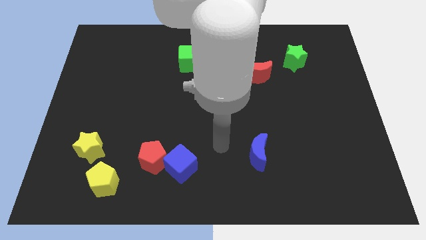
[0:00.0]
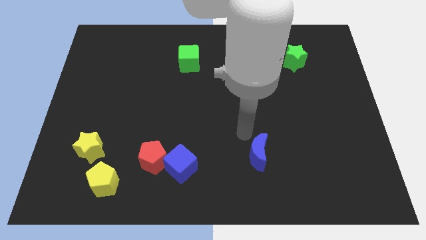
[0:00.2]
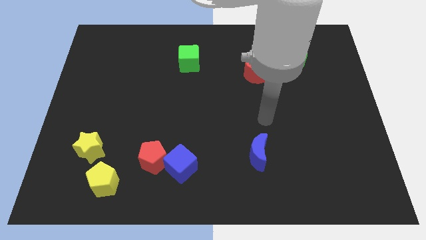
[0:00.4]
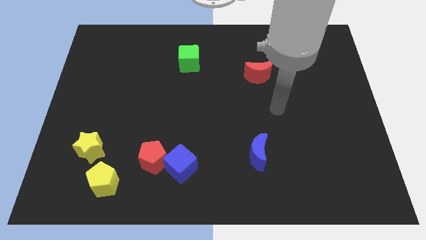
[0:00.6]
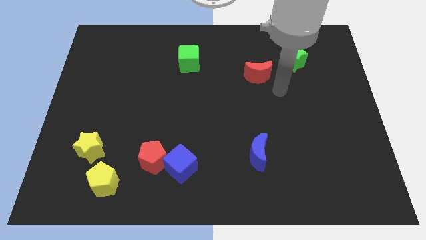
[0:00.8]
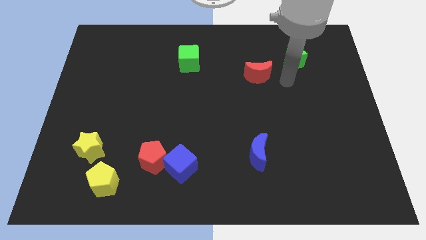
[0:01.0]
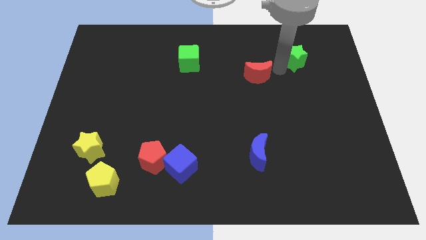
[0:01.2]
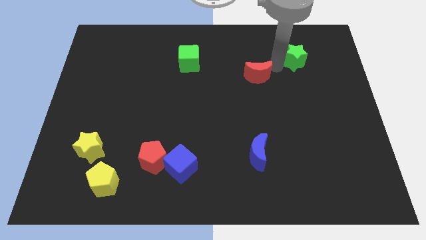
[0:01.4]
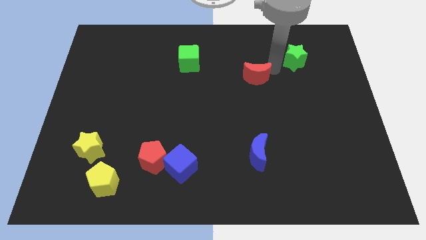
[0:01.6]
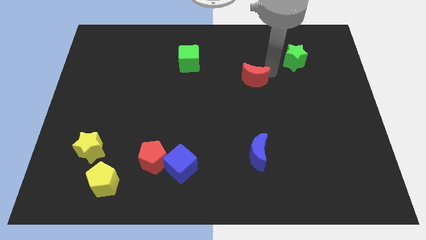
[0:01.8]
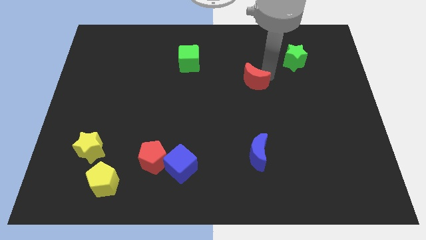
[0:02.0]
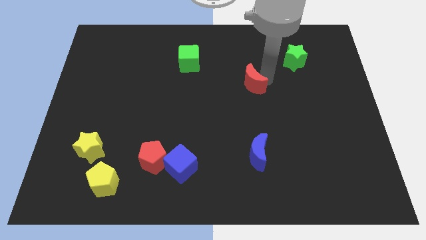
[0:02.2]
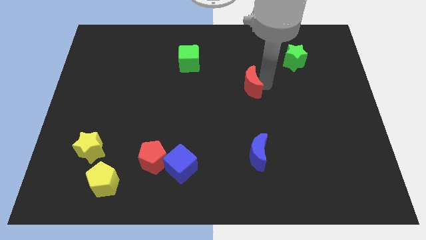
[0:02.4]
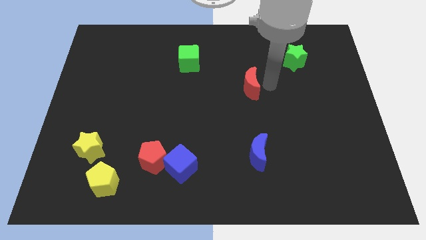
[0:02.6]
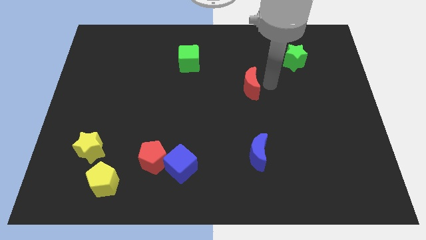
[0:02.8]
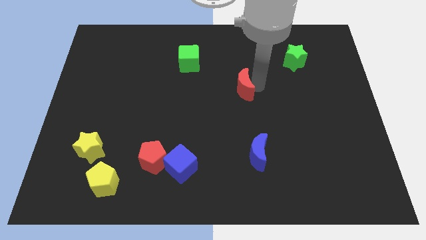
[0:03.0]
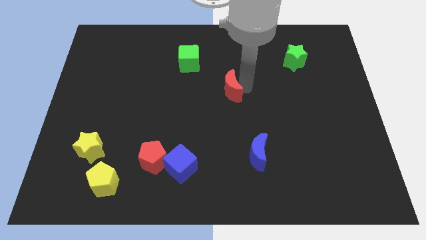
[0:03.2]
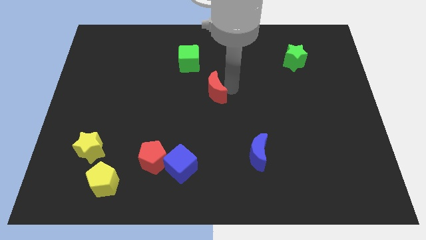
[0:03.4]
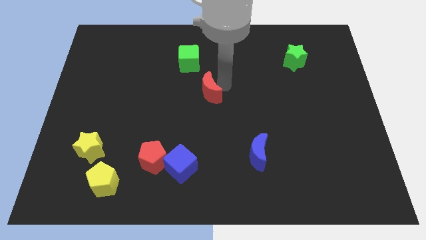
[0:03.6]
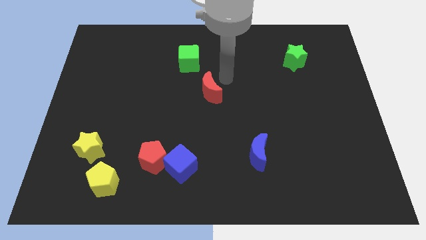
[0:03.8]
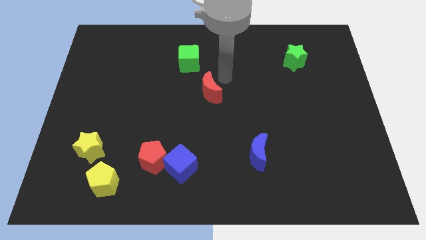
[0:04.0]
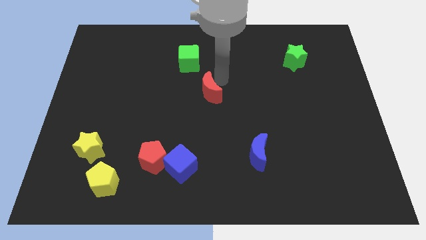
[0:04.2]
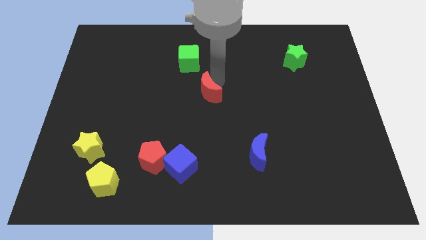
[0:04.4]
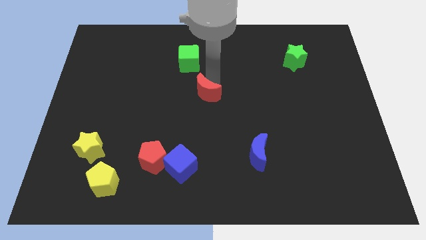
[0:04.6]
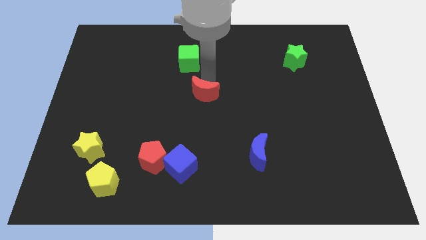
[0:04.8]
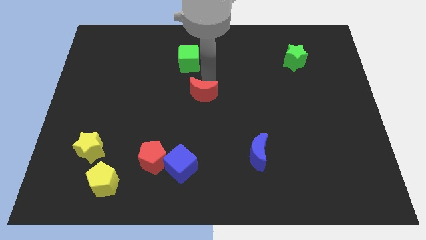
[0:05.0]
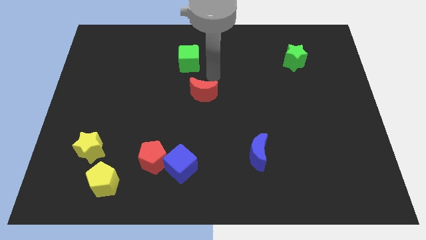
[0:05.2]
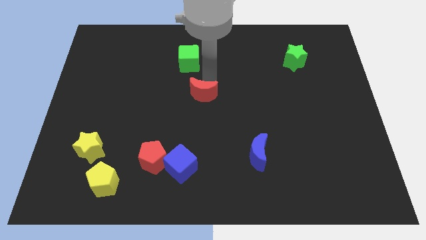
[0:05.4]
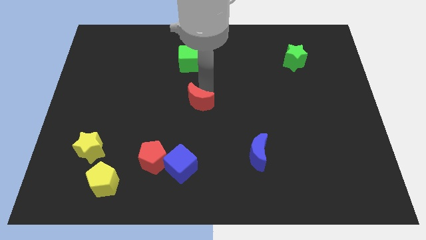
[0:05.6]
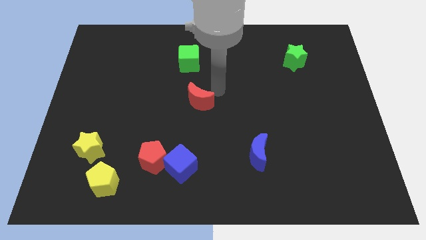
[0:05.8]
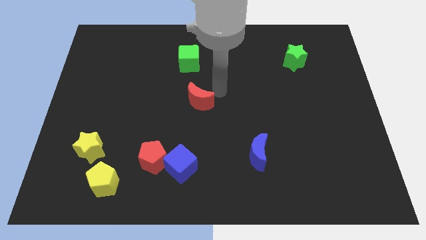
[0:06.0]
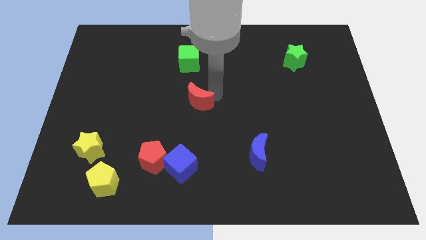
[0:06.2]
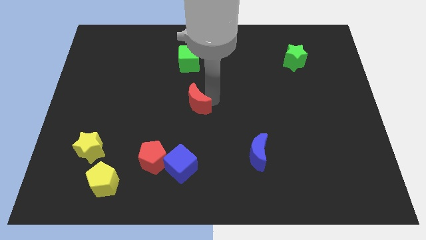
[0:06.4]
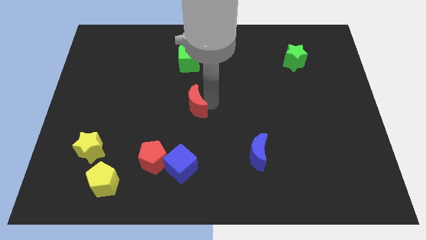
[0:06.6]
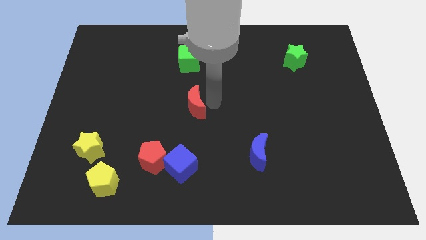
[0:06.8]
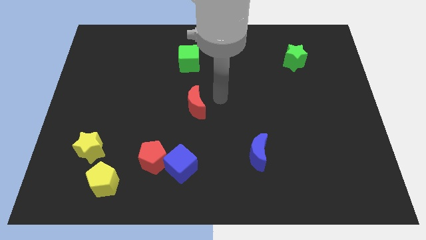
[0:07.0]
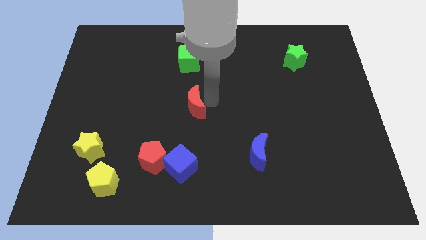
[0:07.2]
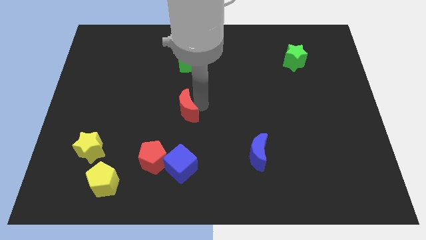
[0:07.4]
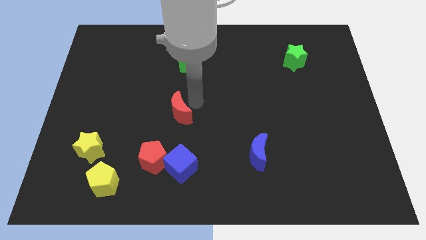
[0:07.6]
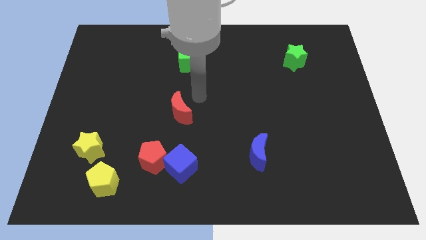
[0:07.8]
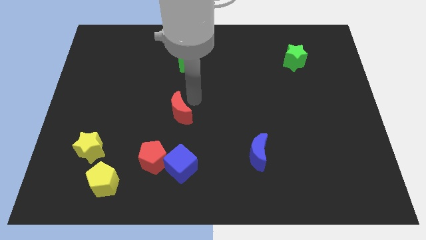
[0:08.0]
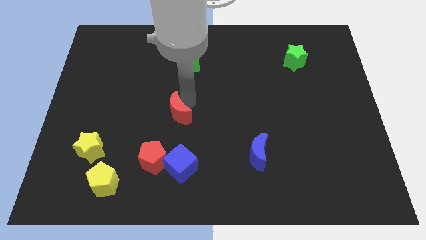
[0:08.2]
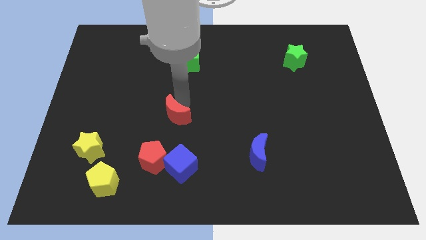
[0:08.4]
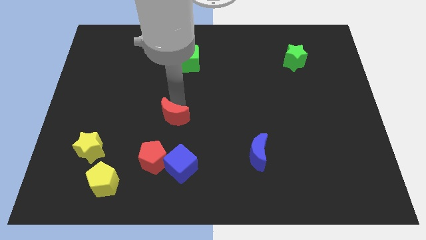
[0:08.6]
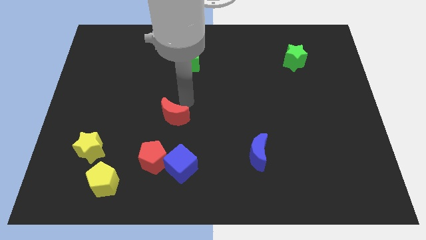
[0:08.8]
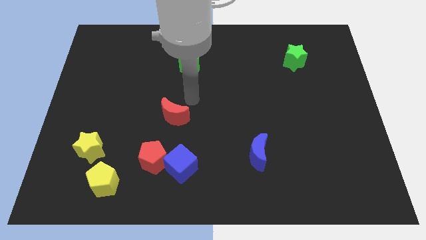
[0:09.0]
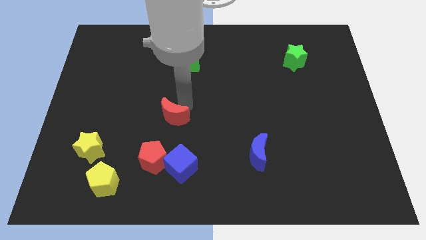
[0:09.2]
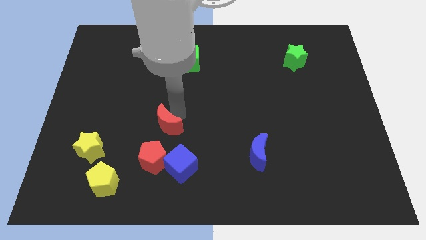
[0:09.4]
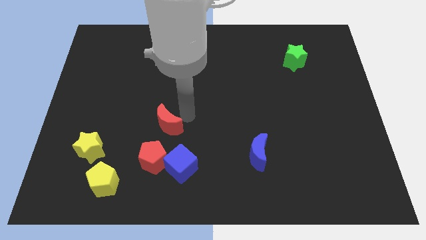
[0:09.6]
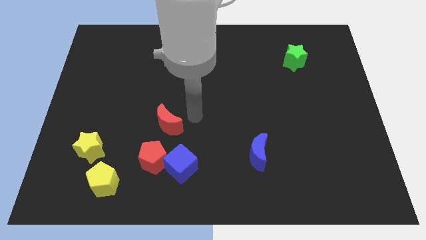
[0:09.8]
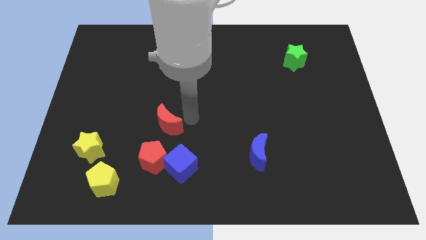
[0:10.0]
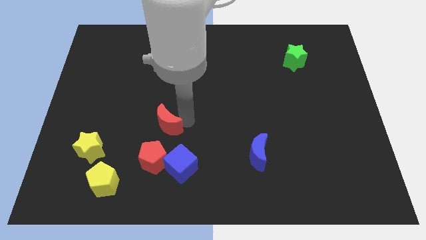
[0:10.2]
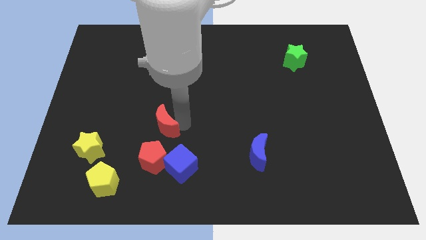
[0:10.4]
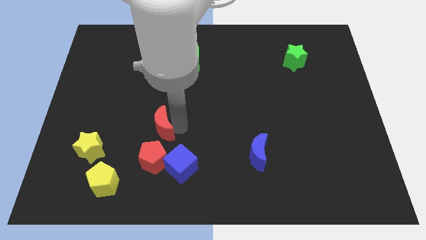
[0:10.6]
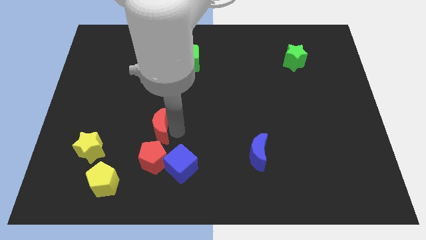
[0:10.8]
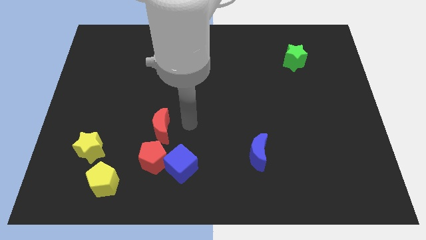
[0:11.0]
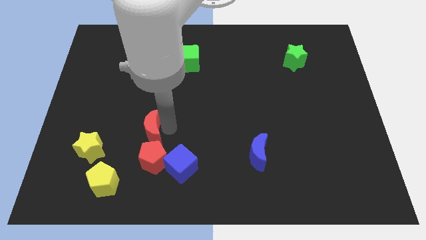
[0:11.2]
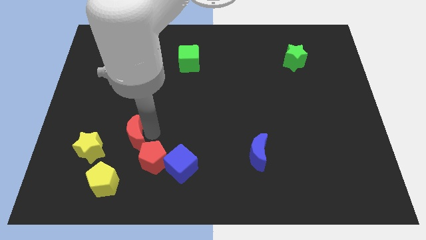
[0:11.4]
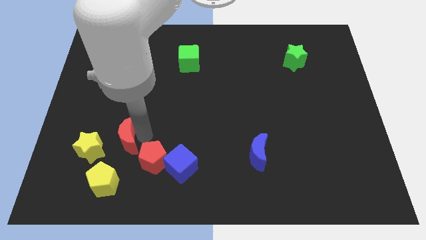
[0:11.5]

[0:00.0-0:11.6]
put the red moon above the yellow pentagon
